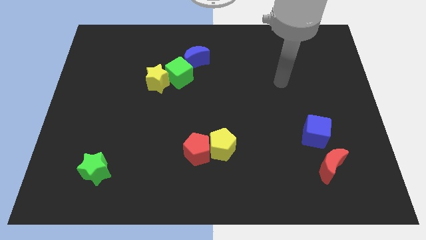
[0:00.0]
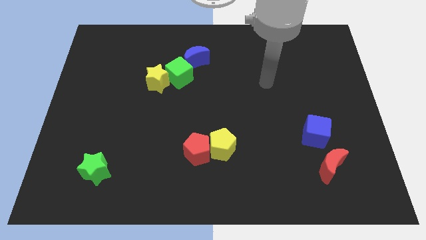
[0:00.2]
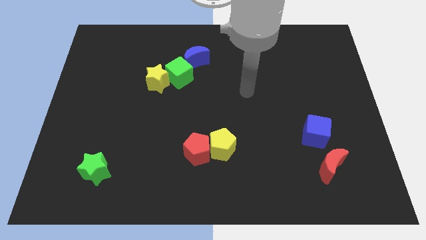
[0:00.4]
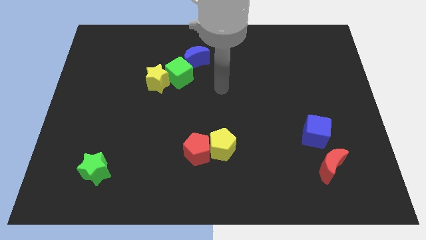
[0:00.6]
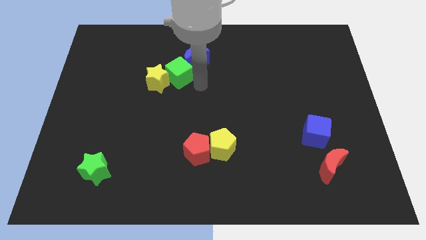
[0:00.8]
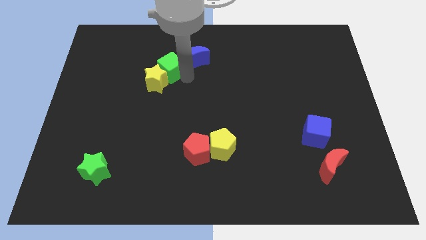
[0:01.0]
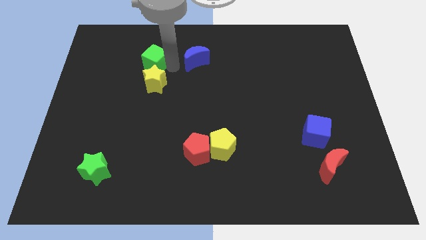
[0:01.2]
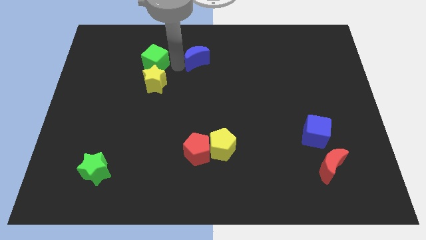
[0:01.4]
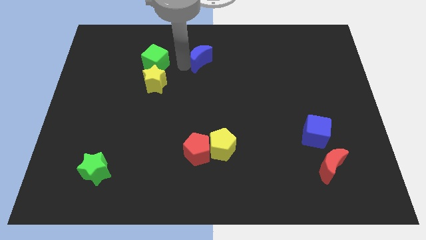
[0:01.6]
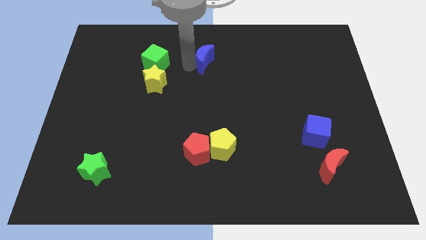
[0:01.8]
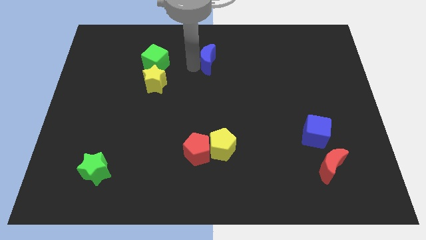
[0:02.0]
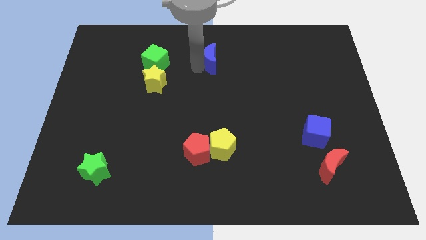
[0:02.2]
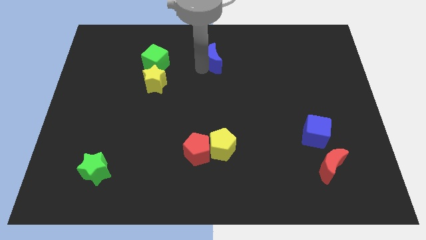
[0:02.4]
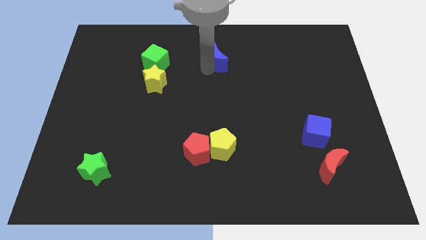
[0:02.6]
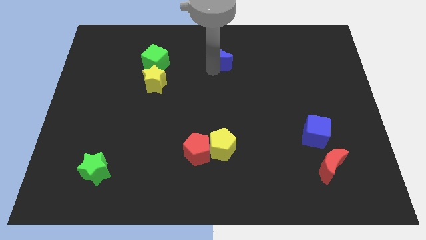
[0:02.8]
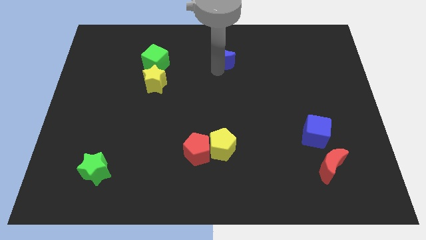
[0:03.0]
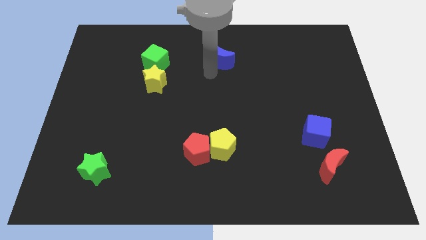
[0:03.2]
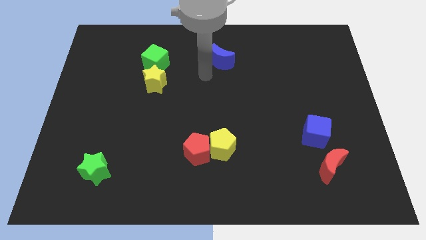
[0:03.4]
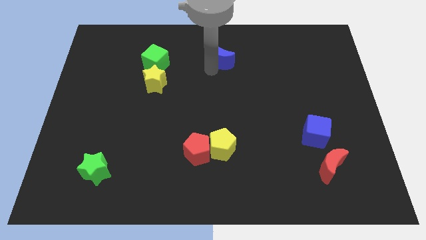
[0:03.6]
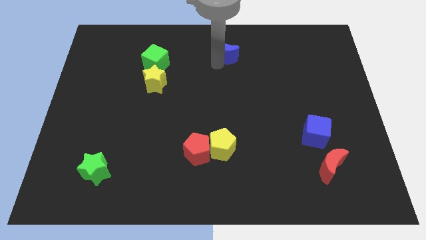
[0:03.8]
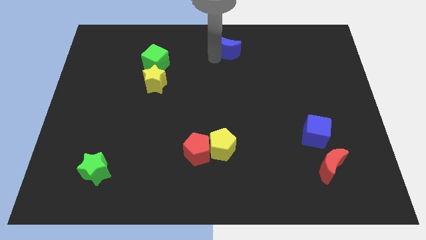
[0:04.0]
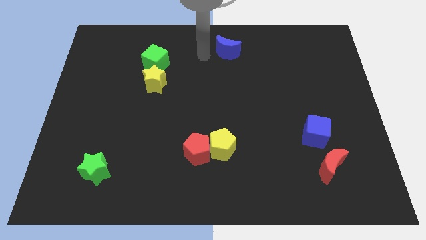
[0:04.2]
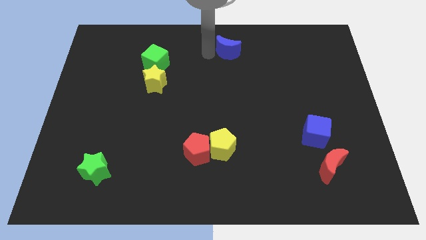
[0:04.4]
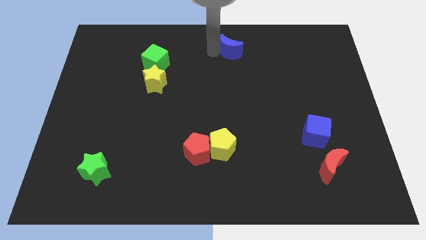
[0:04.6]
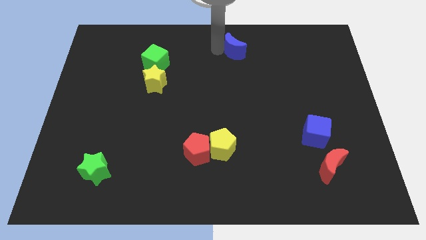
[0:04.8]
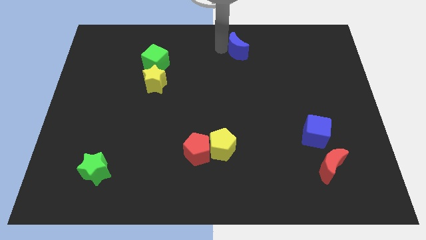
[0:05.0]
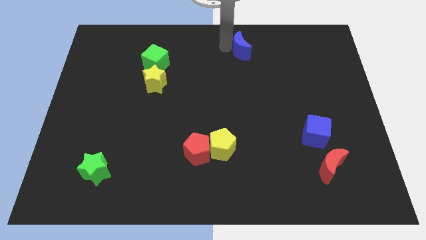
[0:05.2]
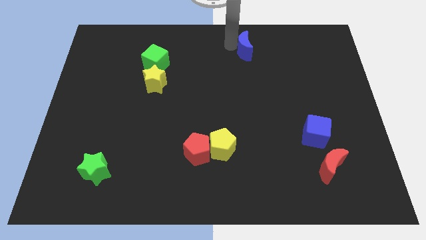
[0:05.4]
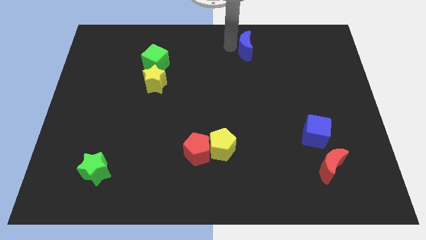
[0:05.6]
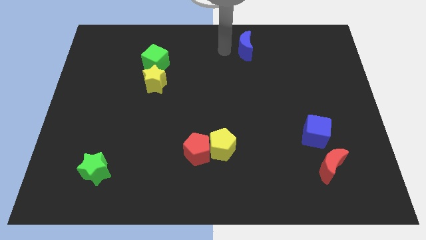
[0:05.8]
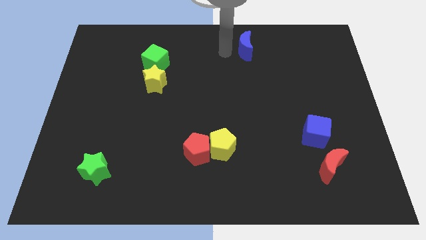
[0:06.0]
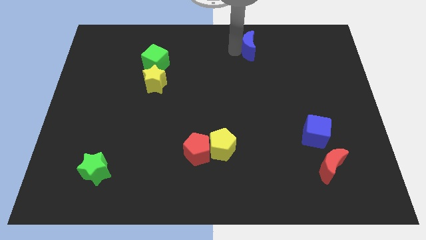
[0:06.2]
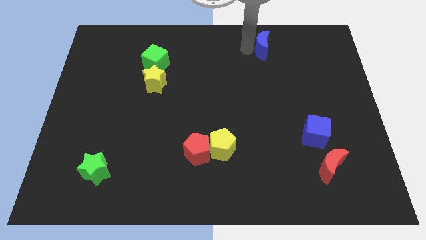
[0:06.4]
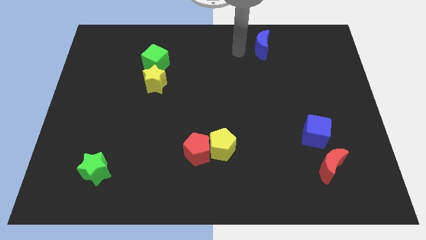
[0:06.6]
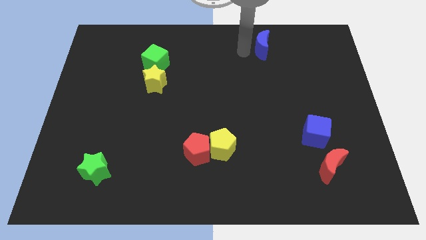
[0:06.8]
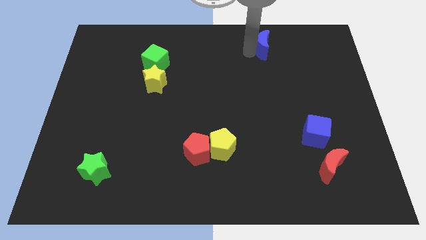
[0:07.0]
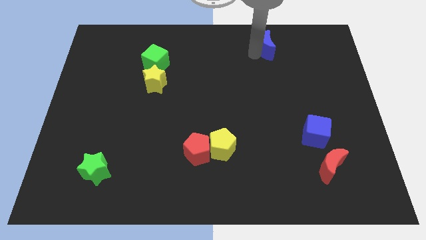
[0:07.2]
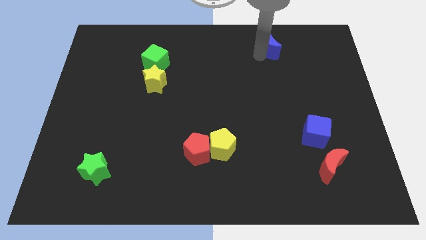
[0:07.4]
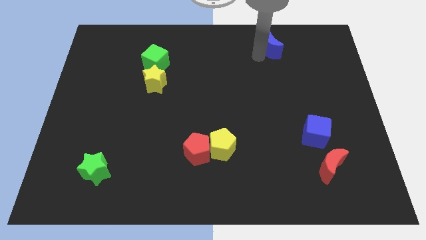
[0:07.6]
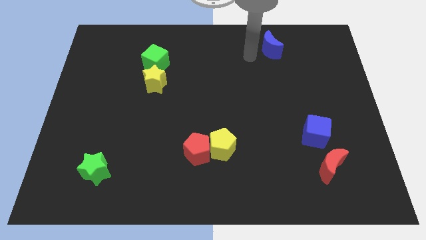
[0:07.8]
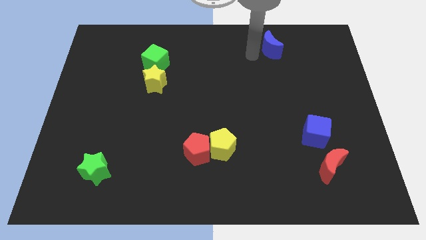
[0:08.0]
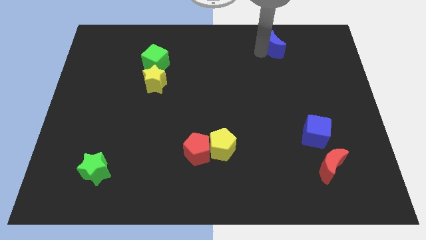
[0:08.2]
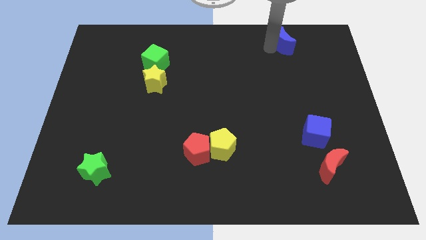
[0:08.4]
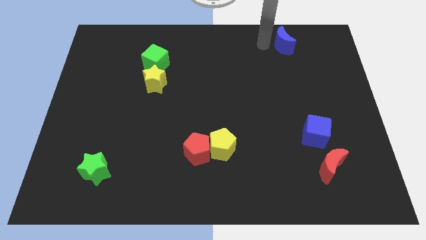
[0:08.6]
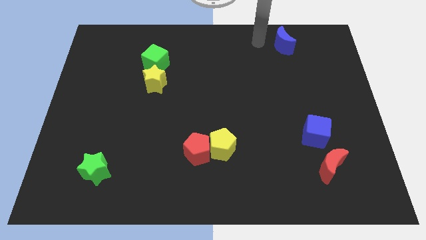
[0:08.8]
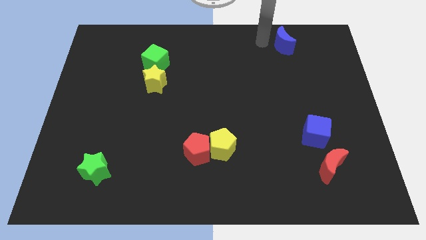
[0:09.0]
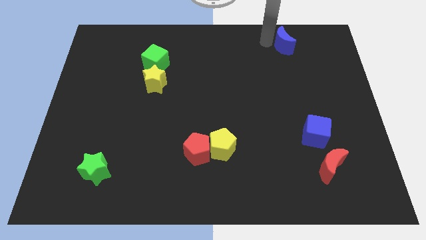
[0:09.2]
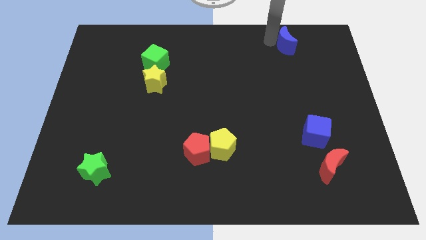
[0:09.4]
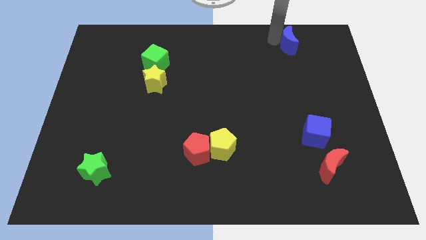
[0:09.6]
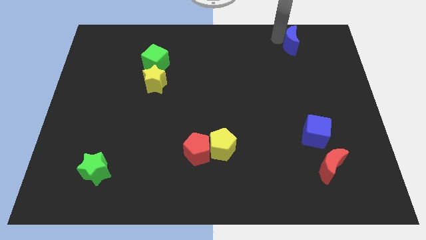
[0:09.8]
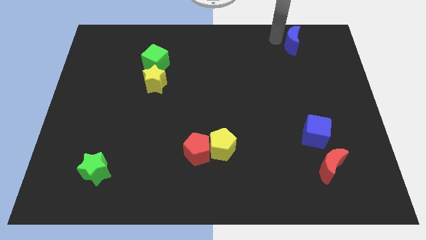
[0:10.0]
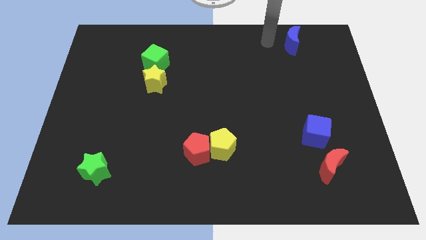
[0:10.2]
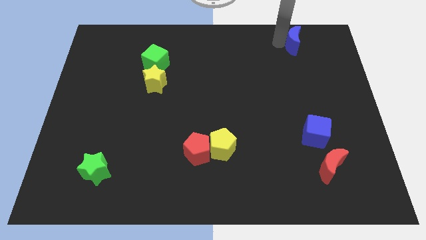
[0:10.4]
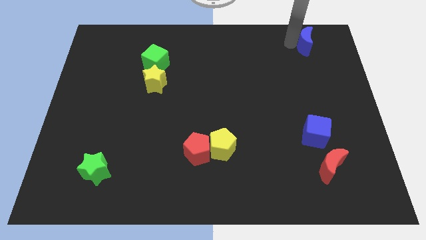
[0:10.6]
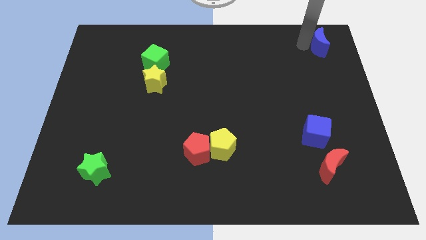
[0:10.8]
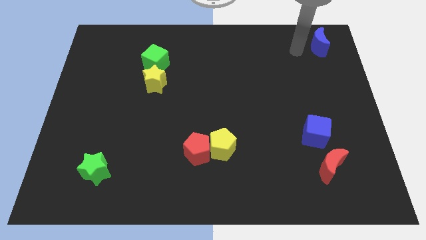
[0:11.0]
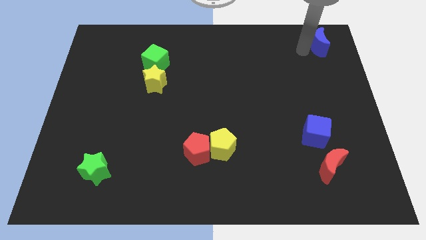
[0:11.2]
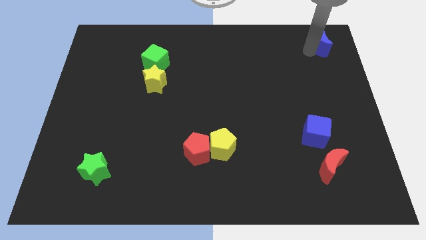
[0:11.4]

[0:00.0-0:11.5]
slide the blue moon to the top right of the board

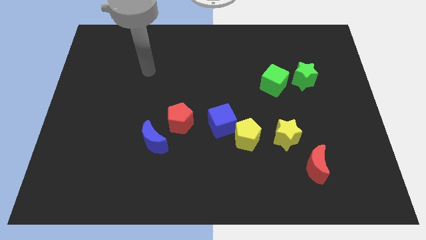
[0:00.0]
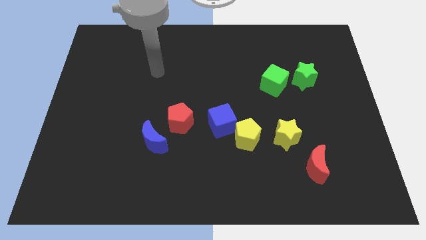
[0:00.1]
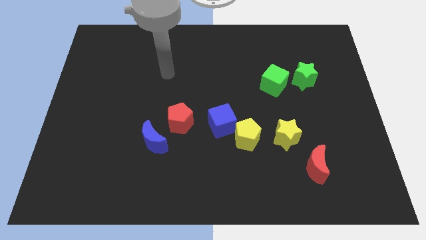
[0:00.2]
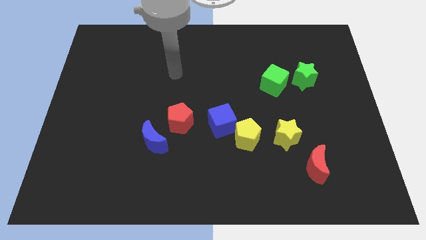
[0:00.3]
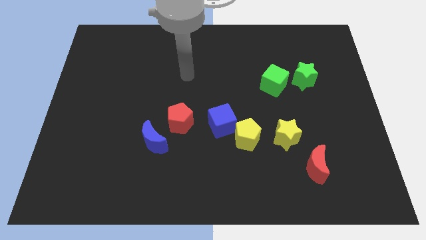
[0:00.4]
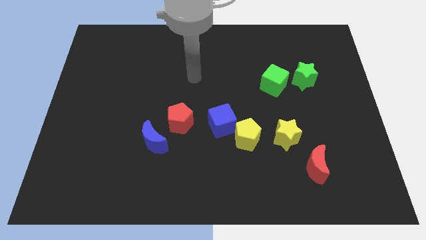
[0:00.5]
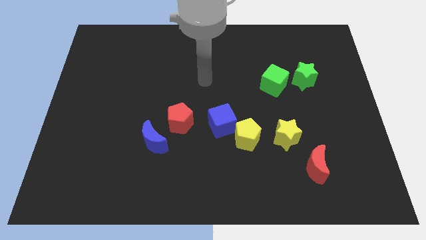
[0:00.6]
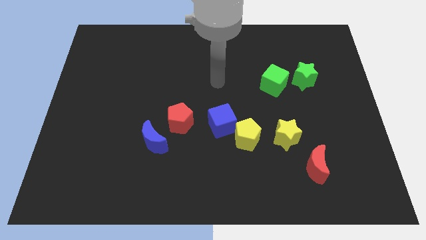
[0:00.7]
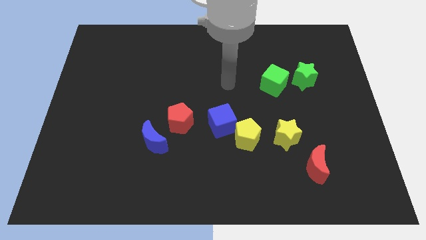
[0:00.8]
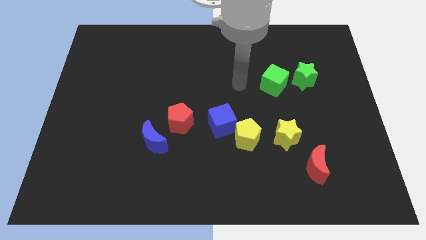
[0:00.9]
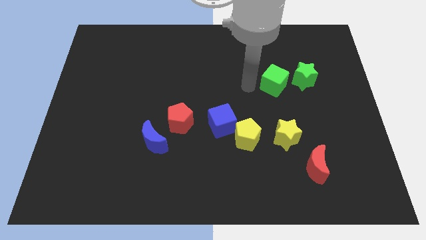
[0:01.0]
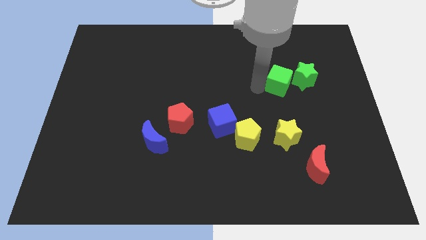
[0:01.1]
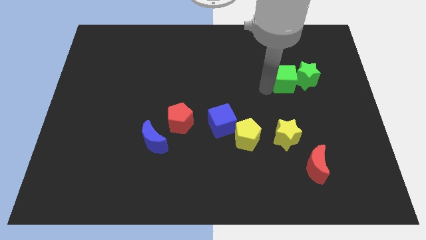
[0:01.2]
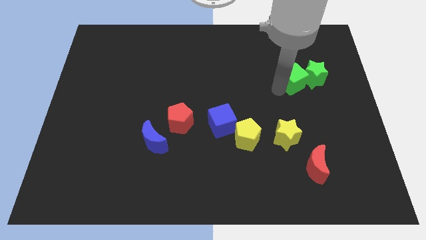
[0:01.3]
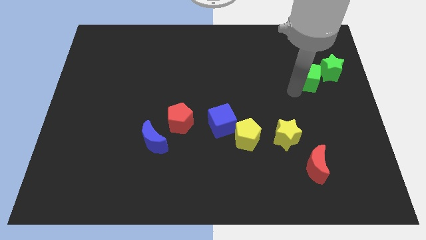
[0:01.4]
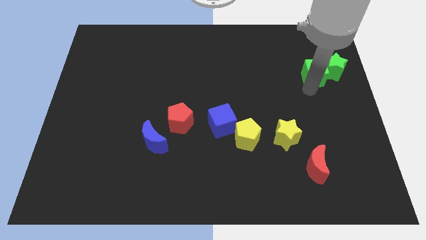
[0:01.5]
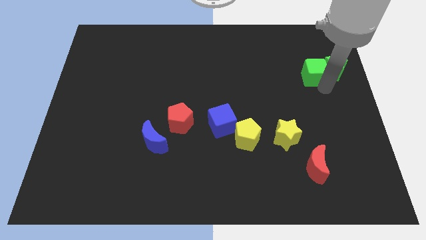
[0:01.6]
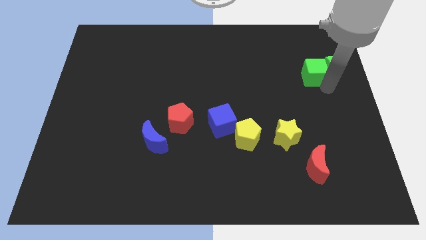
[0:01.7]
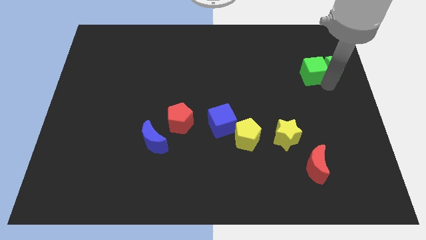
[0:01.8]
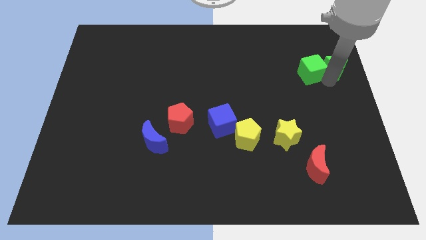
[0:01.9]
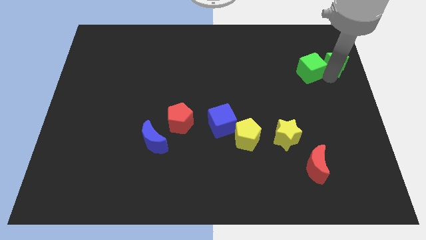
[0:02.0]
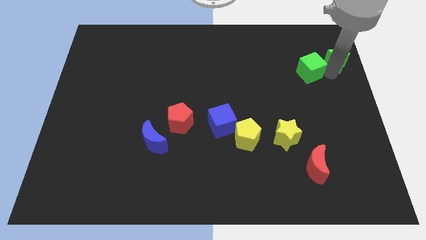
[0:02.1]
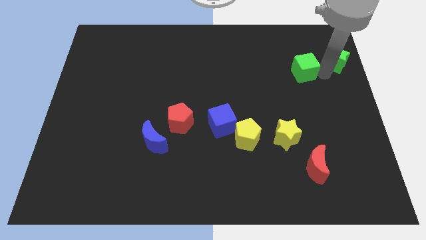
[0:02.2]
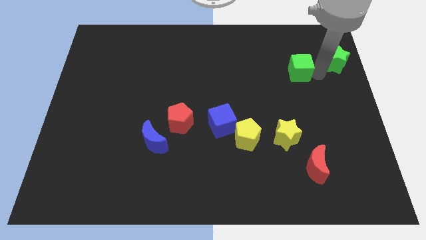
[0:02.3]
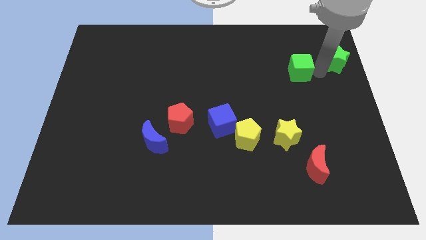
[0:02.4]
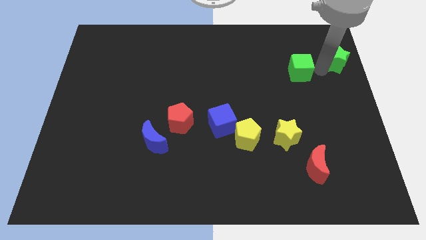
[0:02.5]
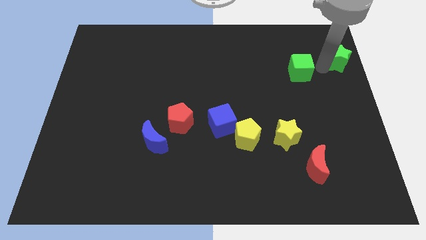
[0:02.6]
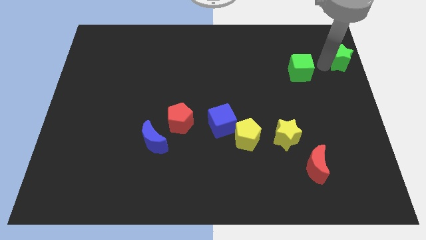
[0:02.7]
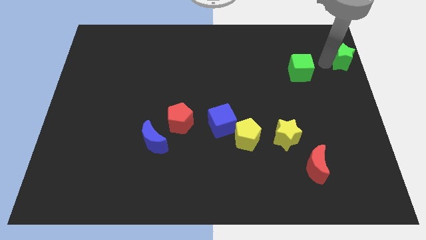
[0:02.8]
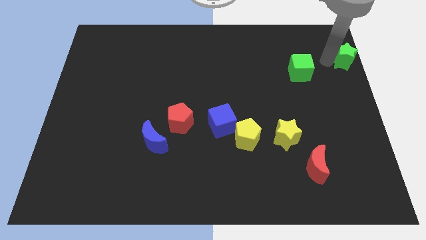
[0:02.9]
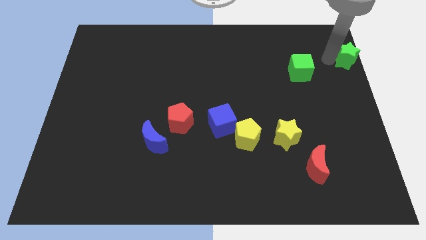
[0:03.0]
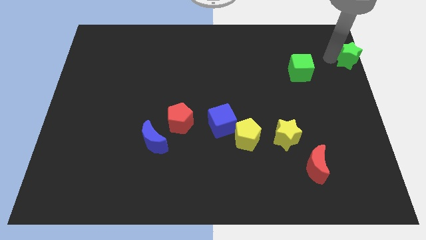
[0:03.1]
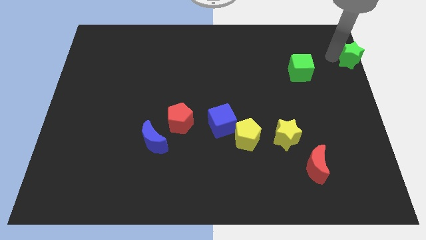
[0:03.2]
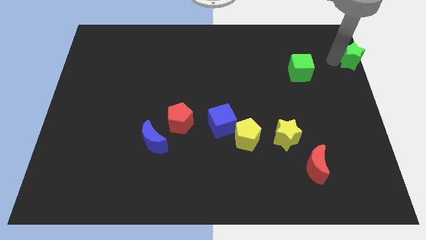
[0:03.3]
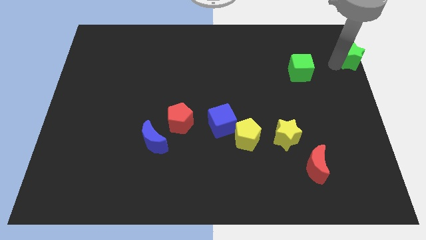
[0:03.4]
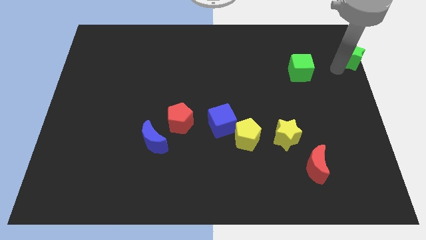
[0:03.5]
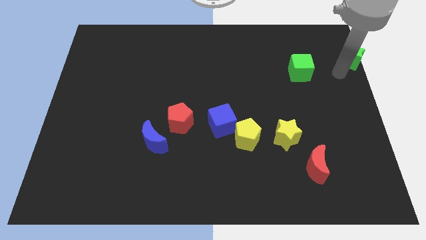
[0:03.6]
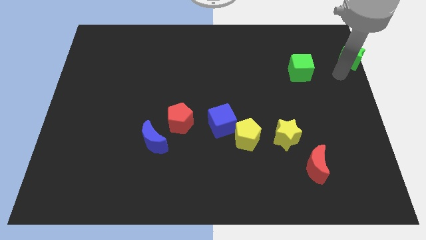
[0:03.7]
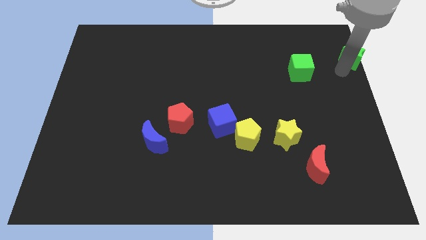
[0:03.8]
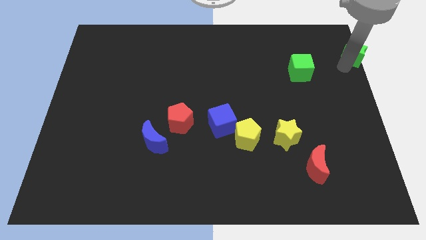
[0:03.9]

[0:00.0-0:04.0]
slide the green star to the top right of the board
